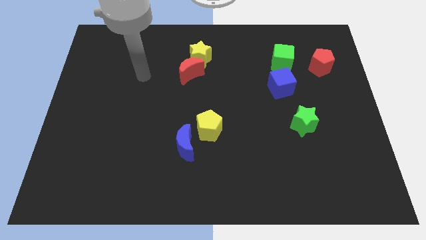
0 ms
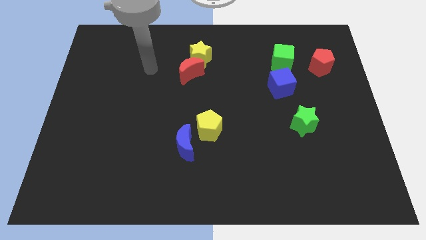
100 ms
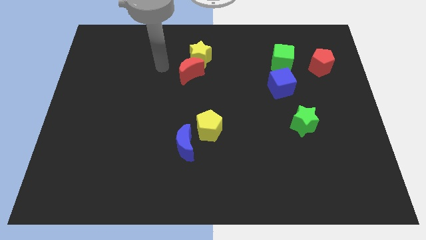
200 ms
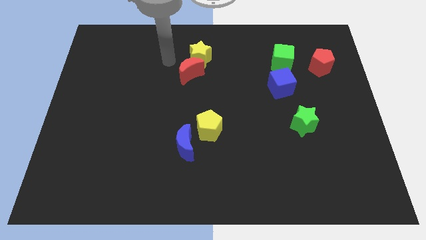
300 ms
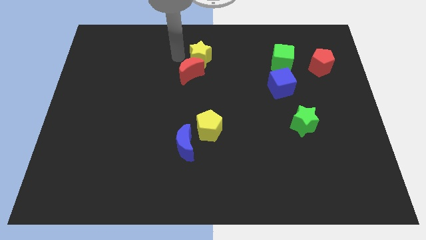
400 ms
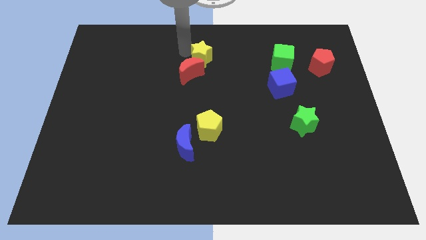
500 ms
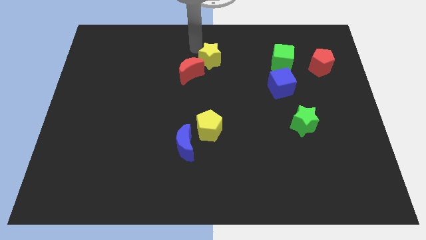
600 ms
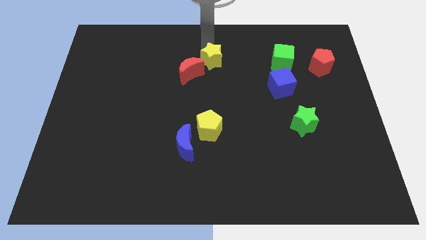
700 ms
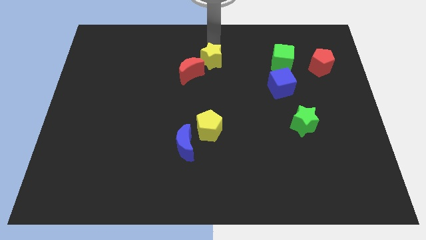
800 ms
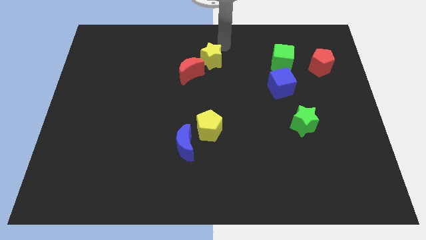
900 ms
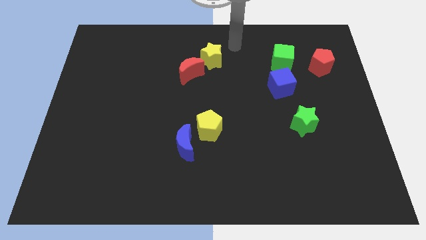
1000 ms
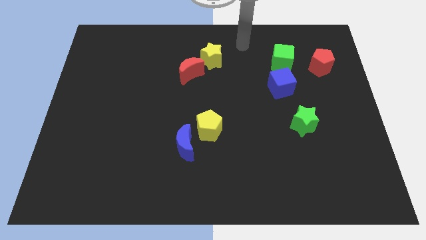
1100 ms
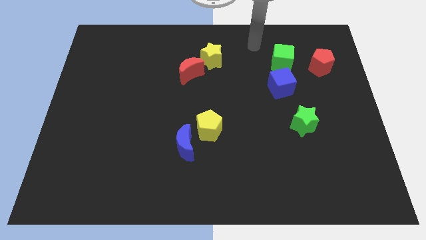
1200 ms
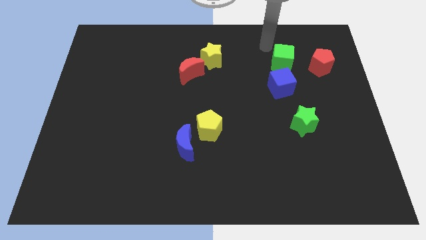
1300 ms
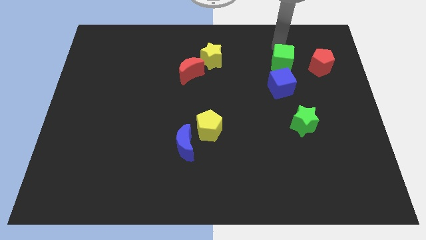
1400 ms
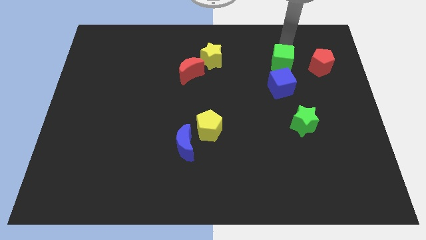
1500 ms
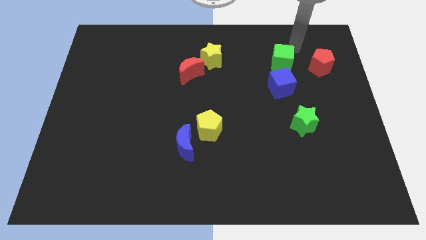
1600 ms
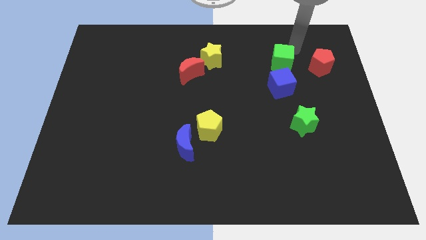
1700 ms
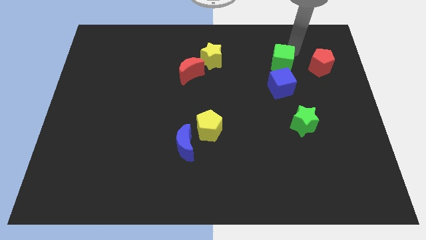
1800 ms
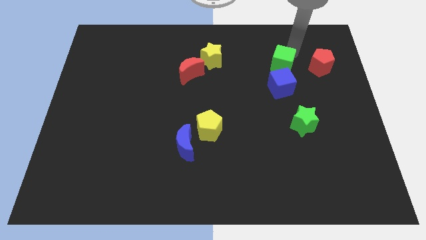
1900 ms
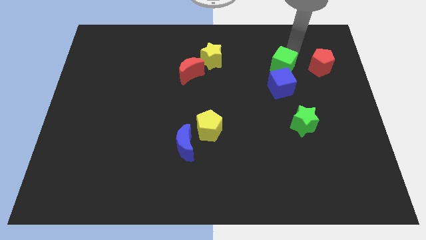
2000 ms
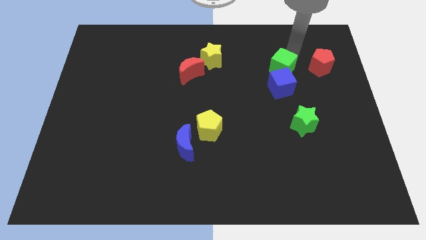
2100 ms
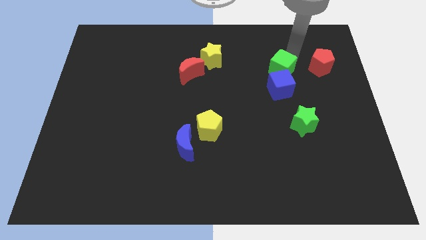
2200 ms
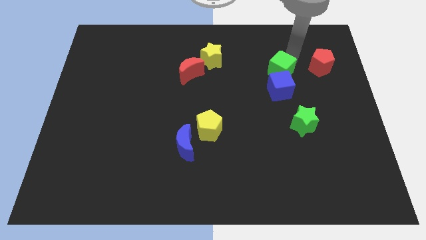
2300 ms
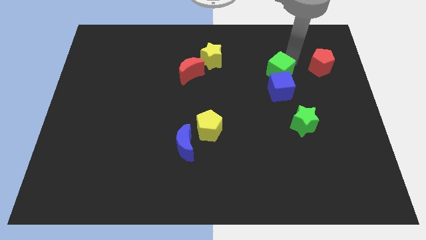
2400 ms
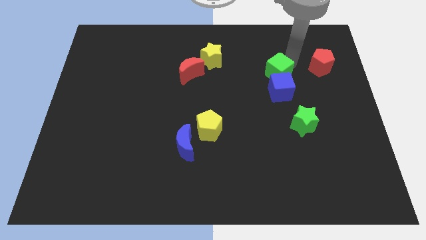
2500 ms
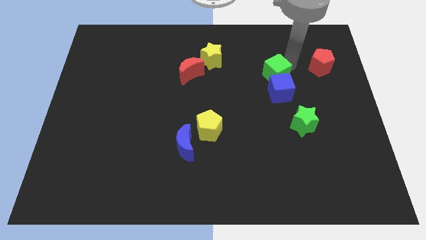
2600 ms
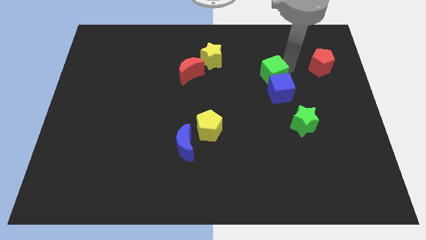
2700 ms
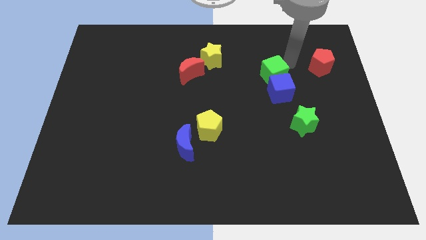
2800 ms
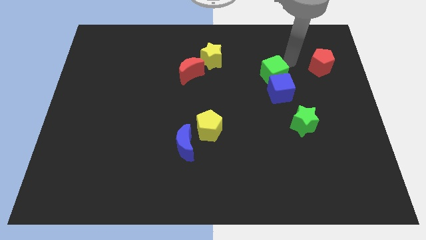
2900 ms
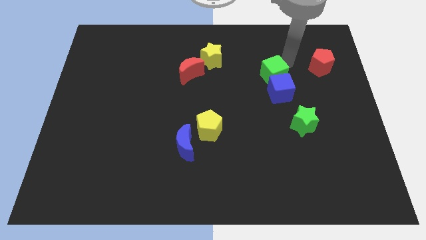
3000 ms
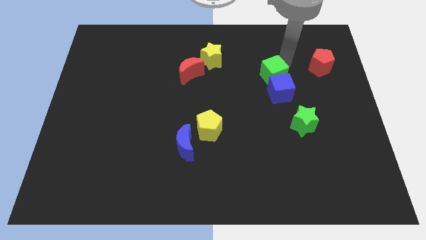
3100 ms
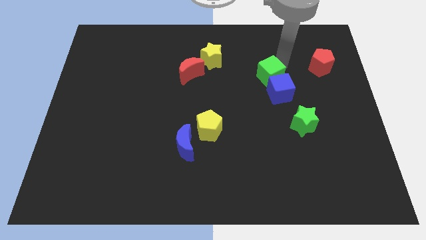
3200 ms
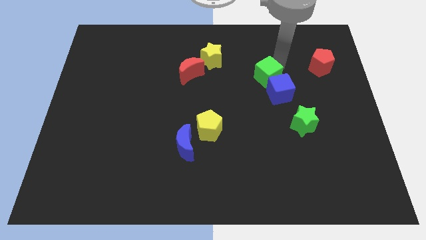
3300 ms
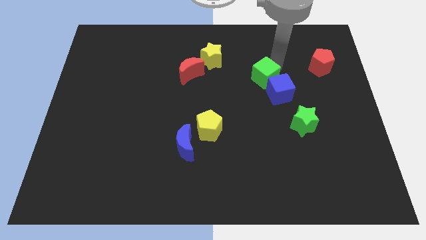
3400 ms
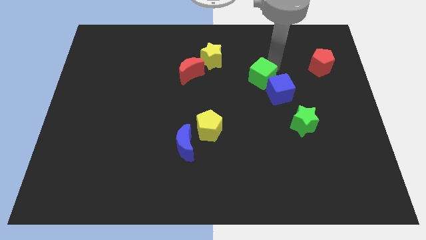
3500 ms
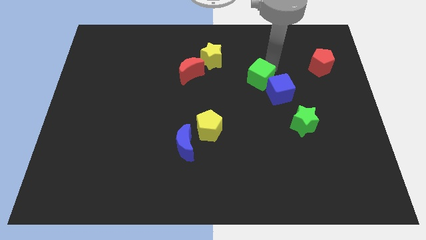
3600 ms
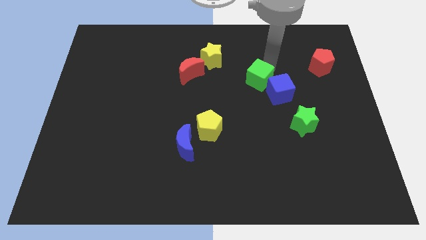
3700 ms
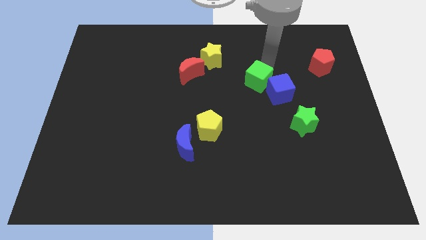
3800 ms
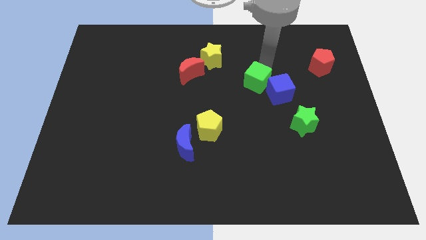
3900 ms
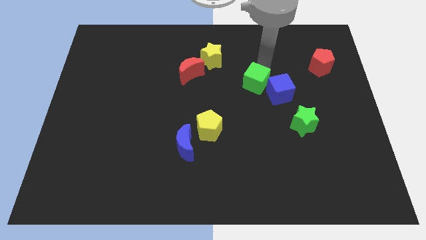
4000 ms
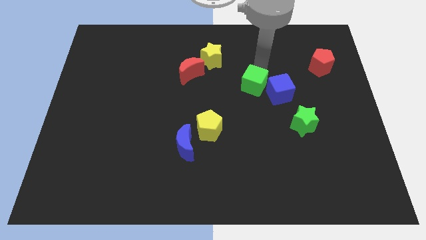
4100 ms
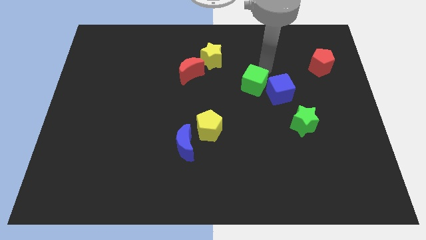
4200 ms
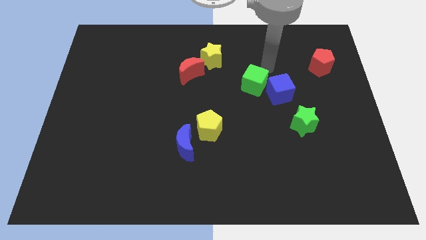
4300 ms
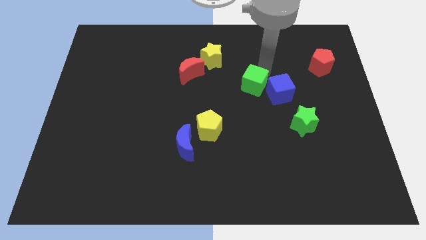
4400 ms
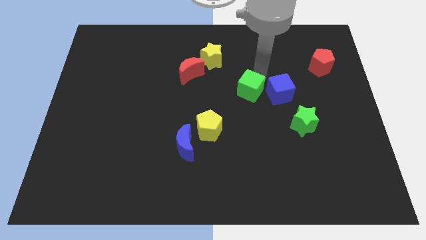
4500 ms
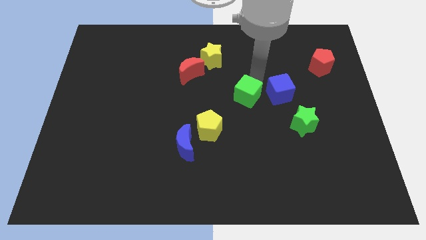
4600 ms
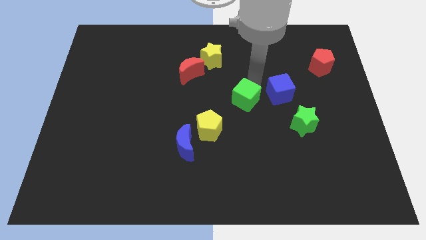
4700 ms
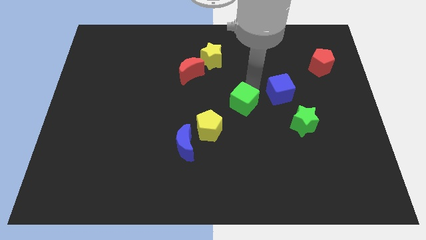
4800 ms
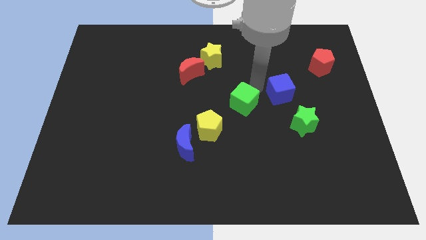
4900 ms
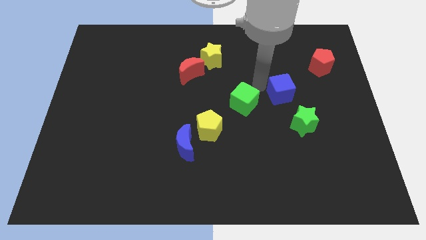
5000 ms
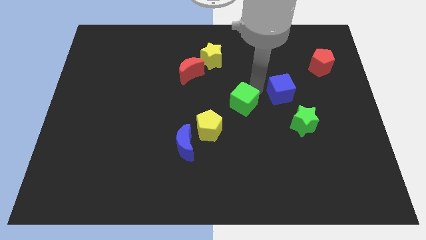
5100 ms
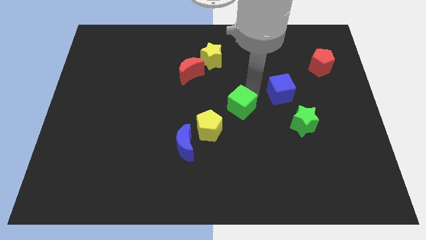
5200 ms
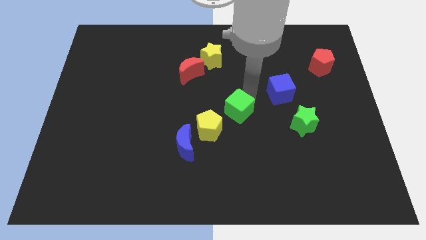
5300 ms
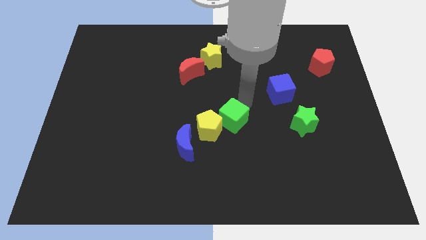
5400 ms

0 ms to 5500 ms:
move the green cube close to the yellow pentagon

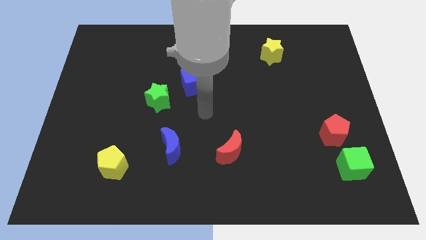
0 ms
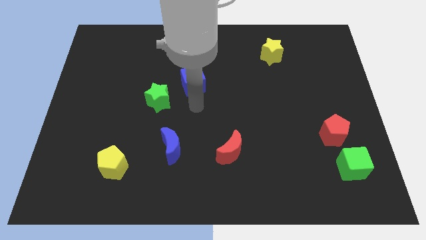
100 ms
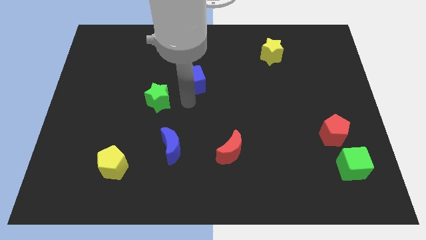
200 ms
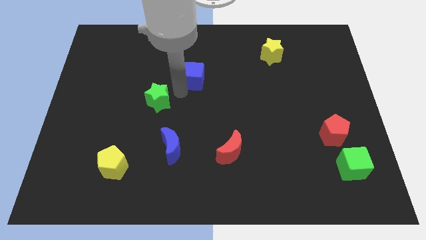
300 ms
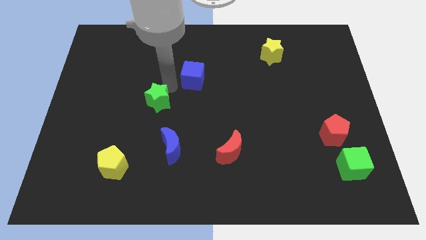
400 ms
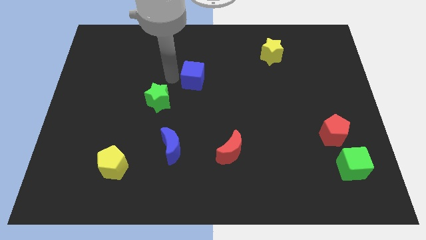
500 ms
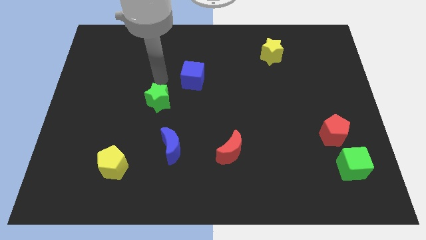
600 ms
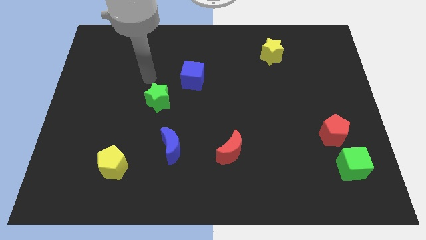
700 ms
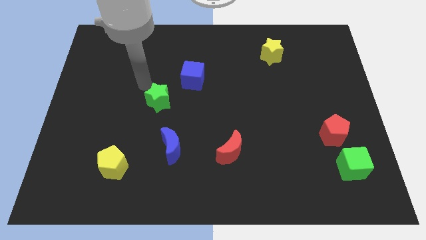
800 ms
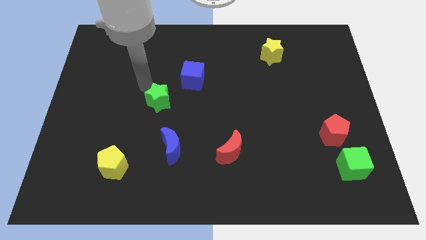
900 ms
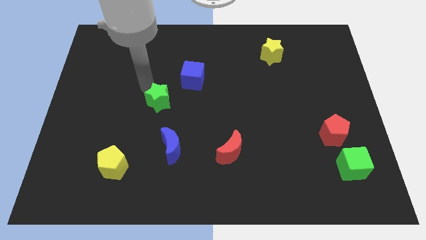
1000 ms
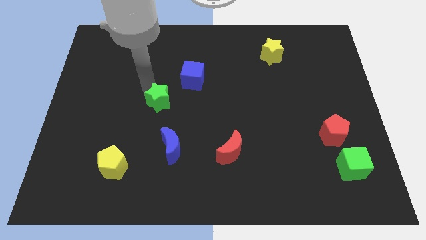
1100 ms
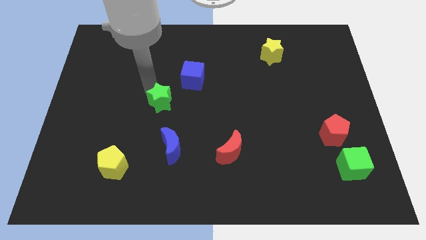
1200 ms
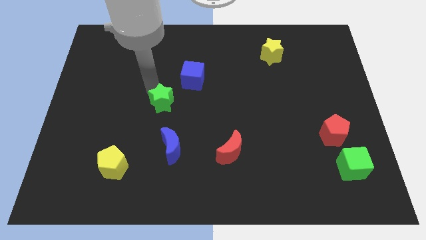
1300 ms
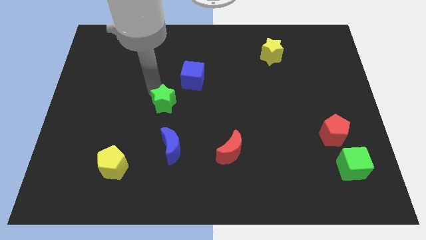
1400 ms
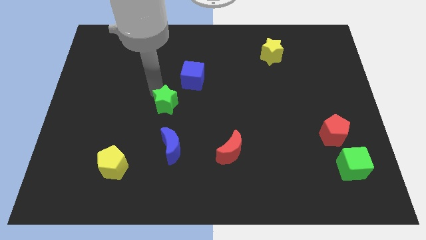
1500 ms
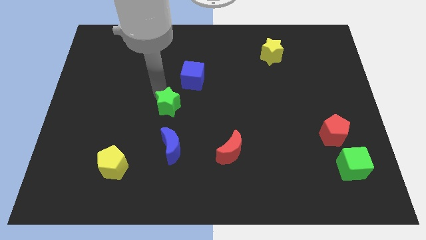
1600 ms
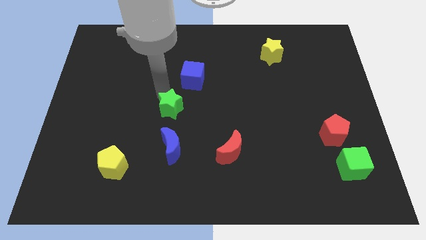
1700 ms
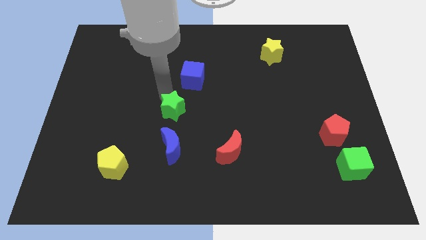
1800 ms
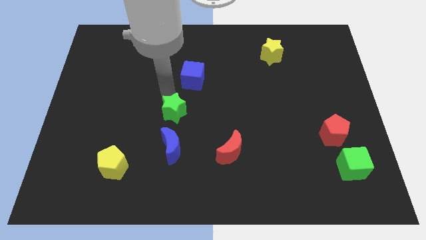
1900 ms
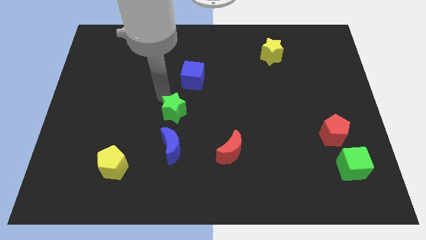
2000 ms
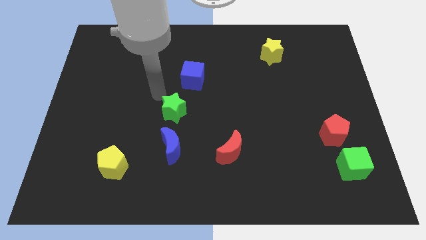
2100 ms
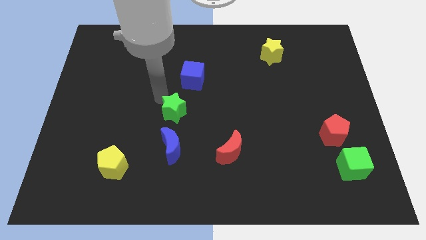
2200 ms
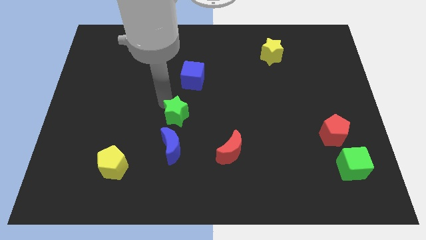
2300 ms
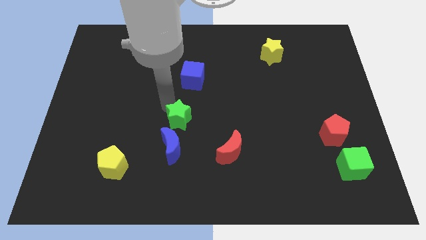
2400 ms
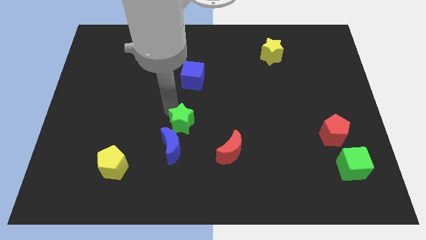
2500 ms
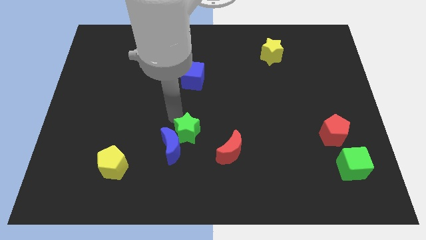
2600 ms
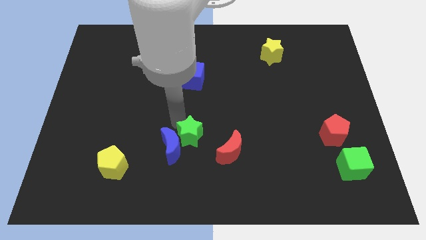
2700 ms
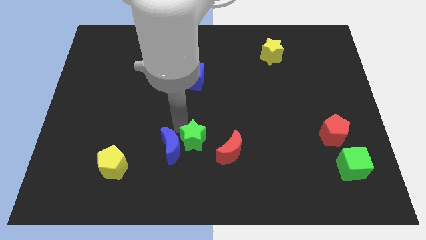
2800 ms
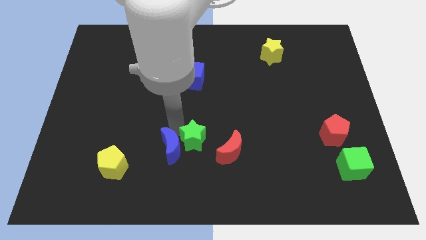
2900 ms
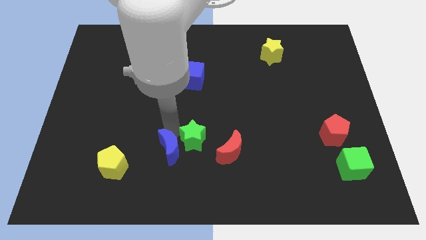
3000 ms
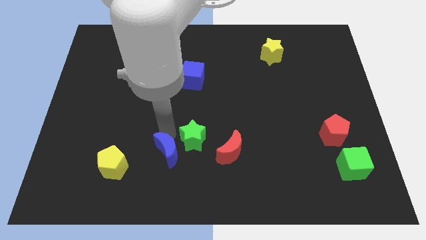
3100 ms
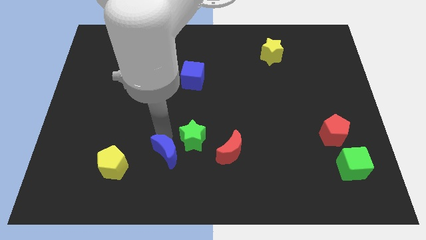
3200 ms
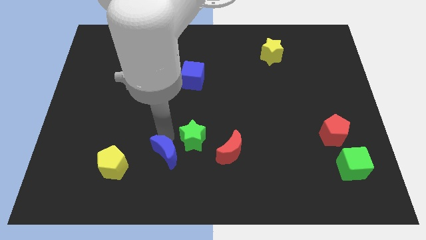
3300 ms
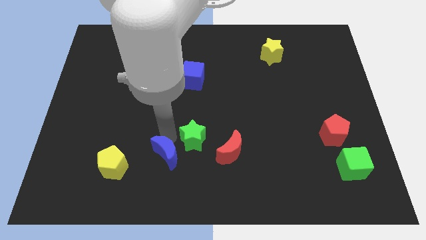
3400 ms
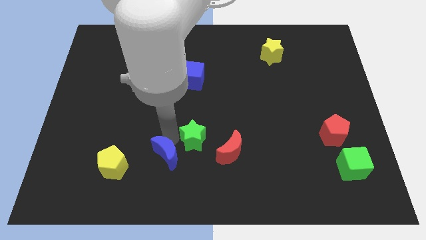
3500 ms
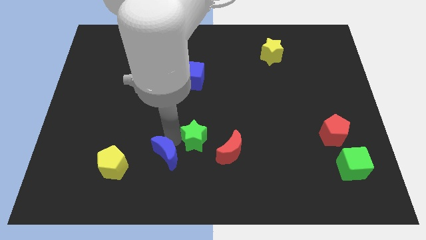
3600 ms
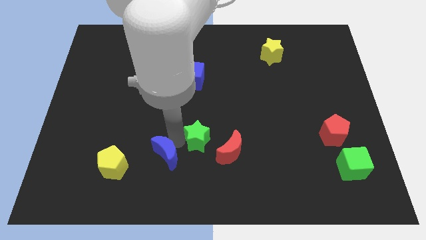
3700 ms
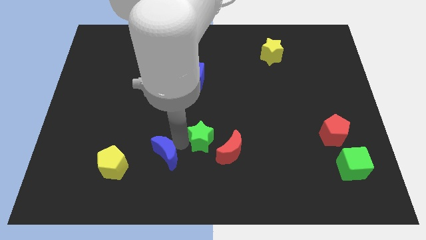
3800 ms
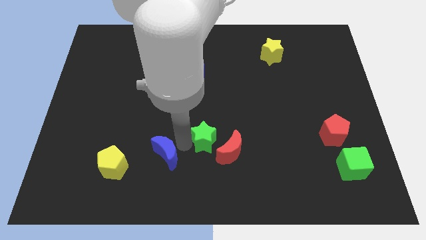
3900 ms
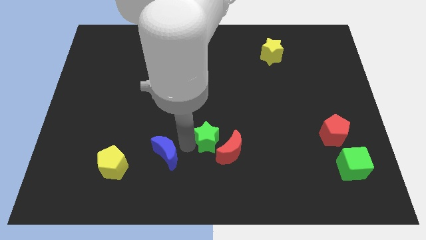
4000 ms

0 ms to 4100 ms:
move the green star next to the red moon
